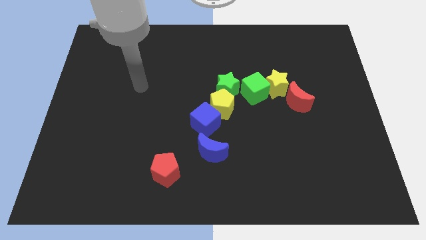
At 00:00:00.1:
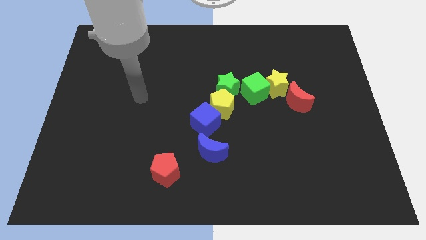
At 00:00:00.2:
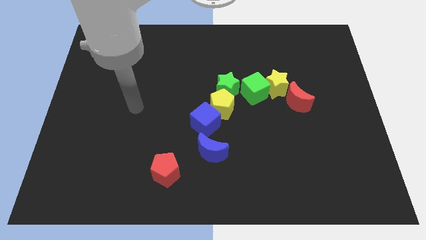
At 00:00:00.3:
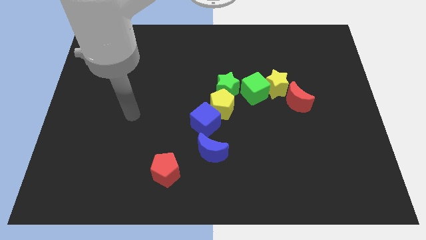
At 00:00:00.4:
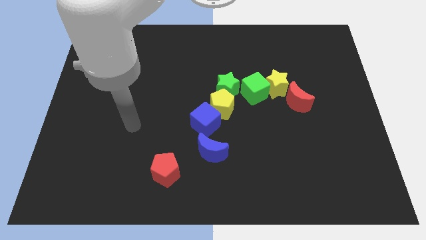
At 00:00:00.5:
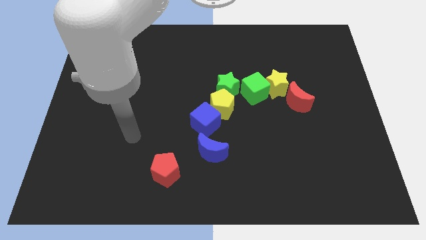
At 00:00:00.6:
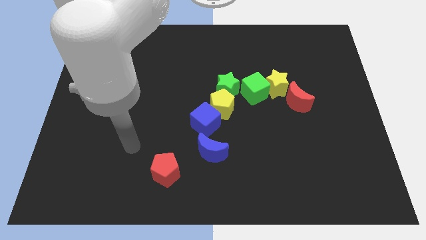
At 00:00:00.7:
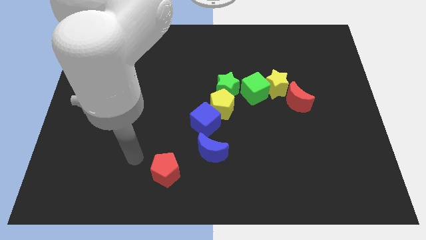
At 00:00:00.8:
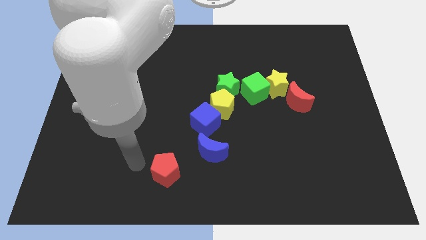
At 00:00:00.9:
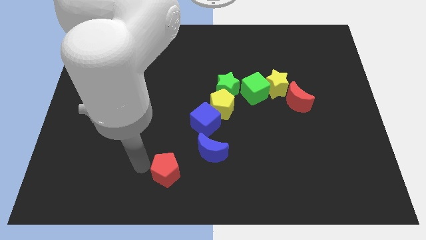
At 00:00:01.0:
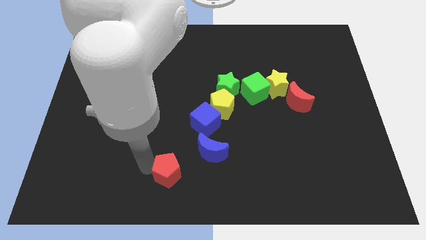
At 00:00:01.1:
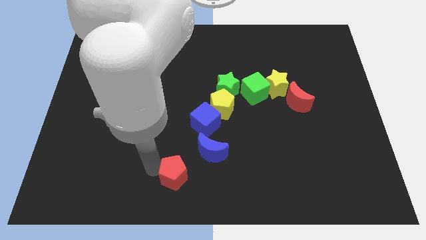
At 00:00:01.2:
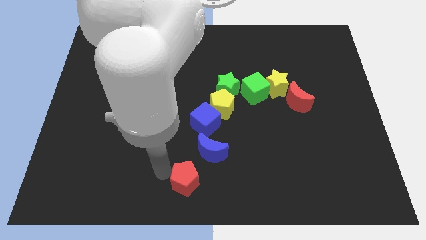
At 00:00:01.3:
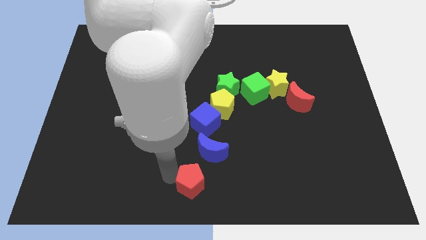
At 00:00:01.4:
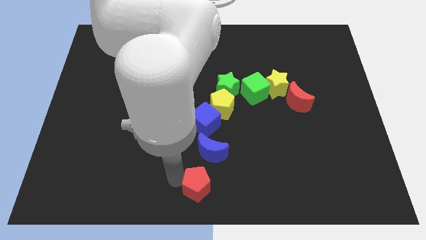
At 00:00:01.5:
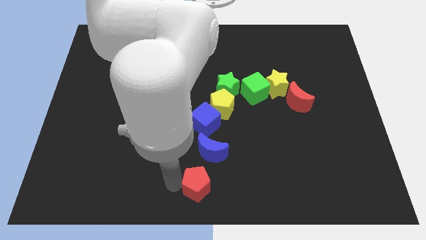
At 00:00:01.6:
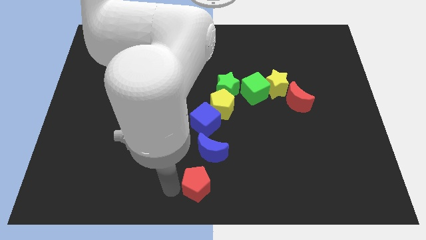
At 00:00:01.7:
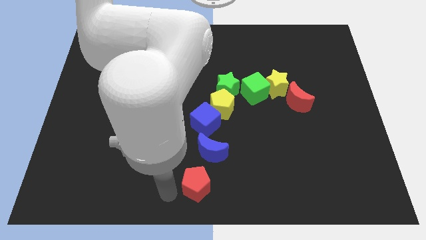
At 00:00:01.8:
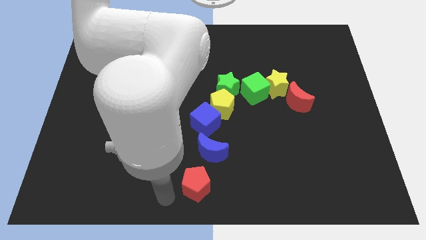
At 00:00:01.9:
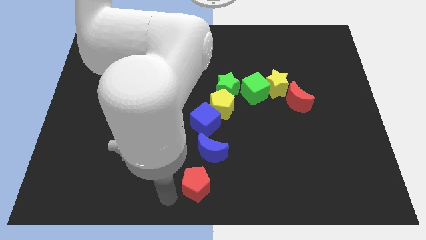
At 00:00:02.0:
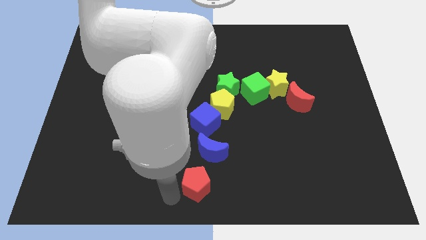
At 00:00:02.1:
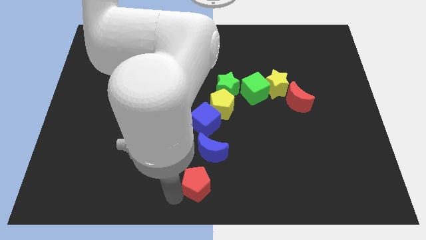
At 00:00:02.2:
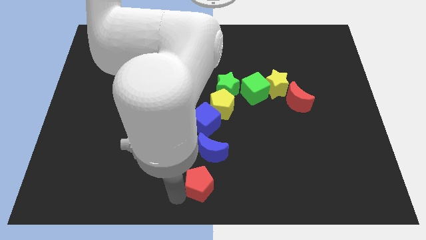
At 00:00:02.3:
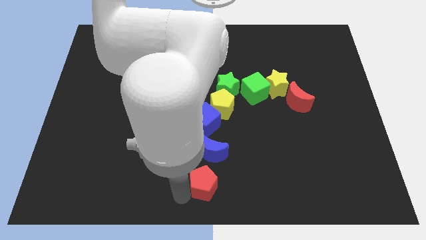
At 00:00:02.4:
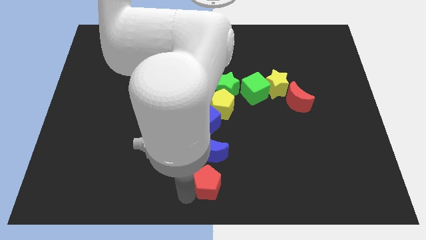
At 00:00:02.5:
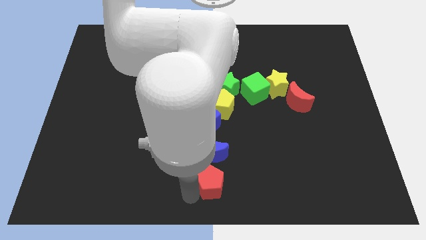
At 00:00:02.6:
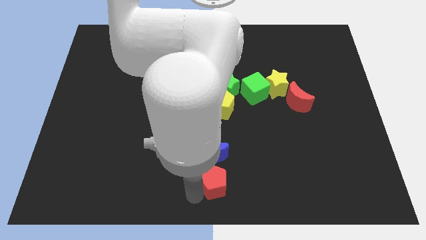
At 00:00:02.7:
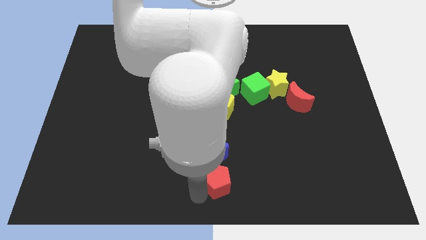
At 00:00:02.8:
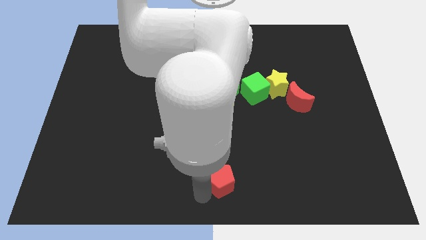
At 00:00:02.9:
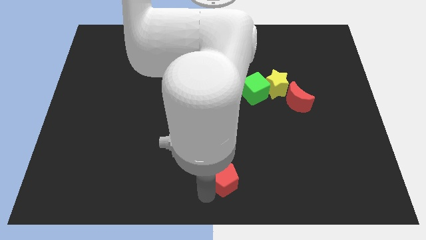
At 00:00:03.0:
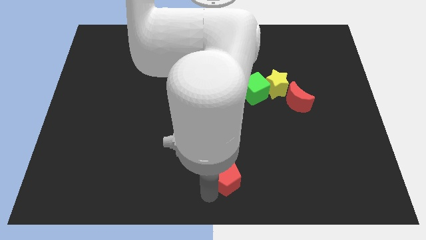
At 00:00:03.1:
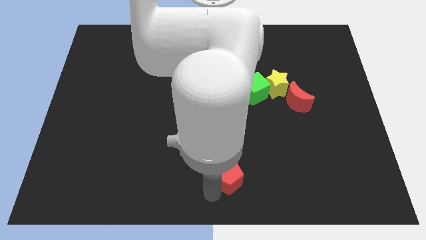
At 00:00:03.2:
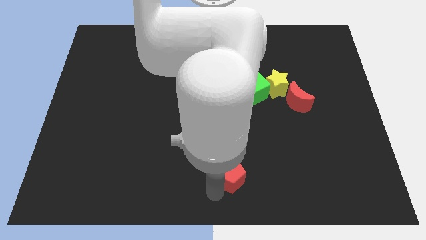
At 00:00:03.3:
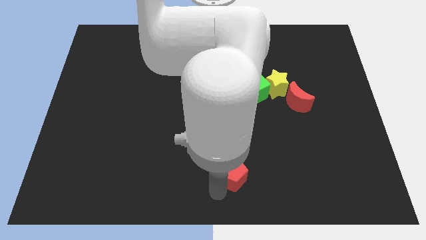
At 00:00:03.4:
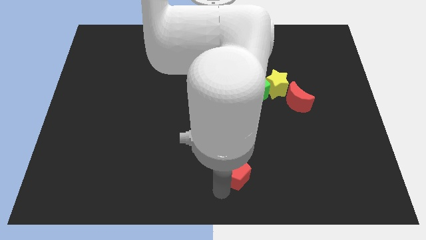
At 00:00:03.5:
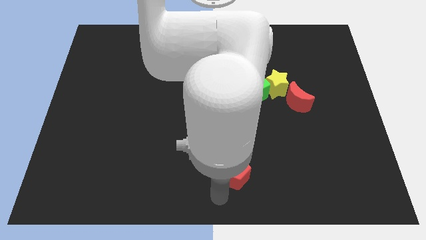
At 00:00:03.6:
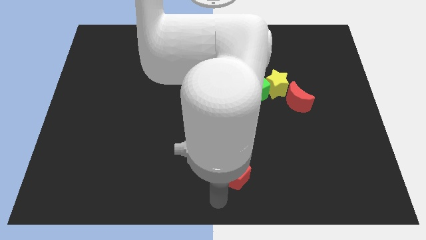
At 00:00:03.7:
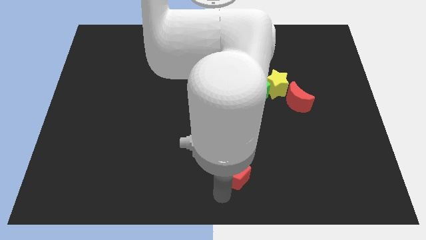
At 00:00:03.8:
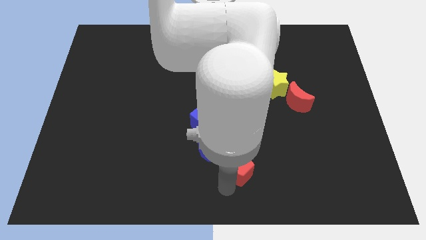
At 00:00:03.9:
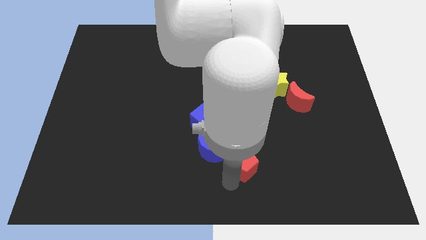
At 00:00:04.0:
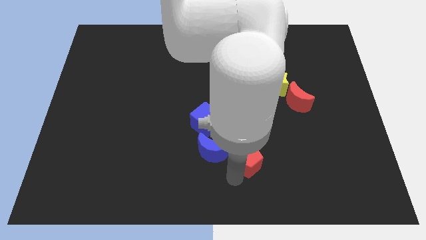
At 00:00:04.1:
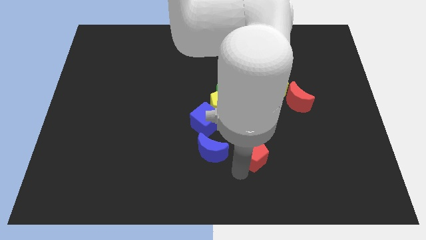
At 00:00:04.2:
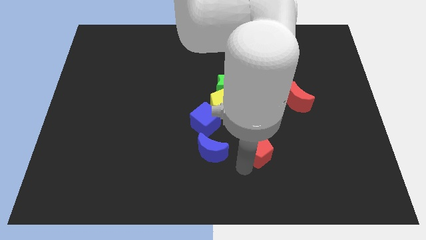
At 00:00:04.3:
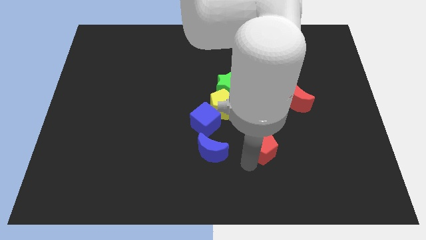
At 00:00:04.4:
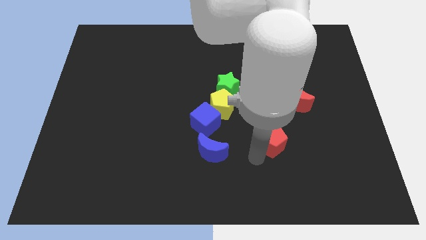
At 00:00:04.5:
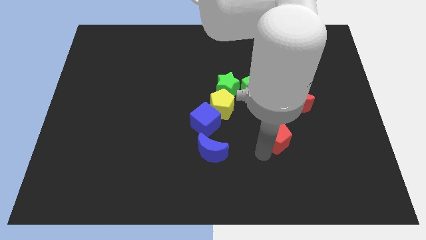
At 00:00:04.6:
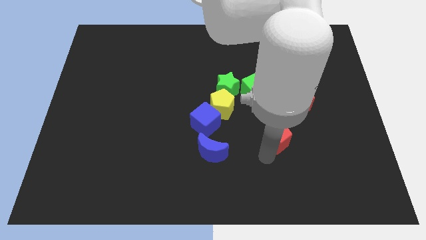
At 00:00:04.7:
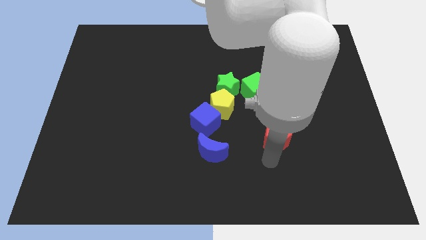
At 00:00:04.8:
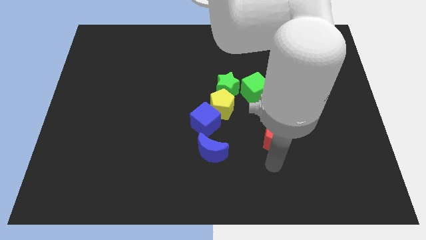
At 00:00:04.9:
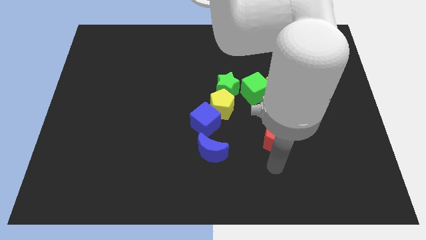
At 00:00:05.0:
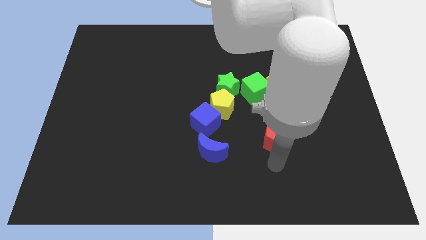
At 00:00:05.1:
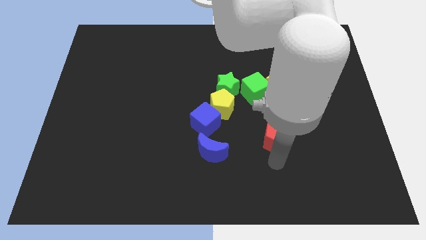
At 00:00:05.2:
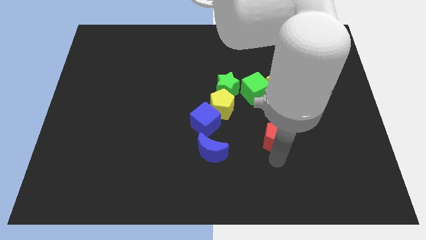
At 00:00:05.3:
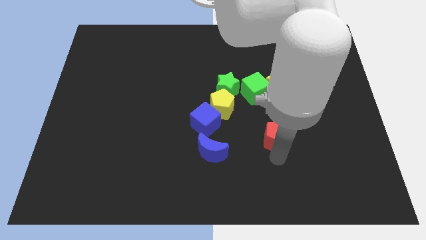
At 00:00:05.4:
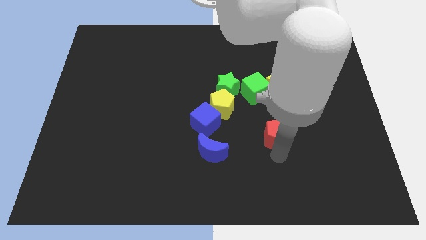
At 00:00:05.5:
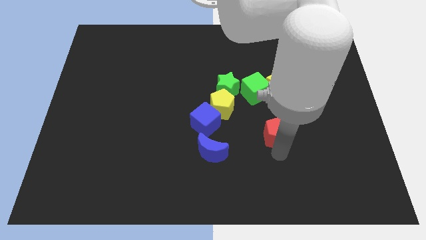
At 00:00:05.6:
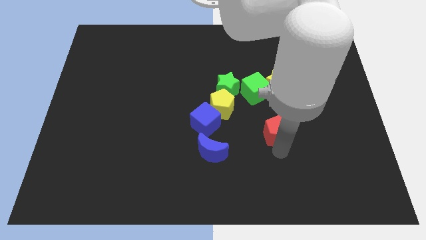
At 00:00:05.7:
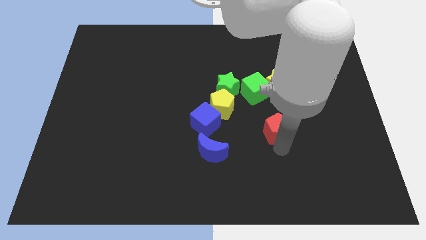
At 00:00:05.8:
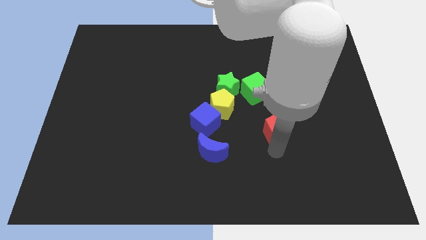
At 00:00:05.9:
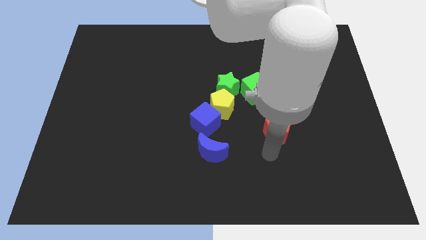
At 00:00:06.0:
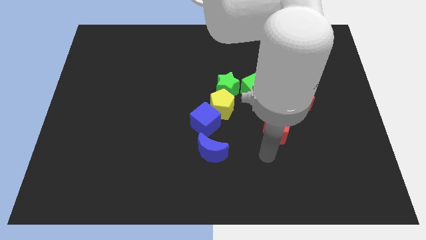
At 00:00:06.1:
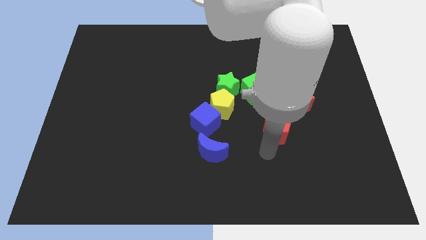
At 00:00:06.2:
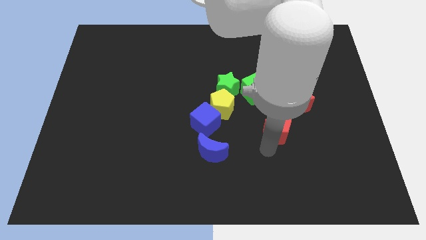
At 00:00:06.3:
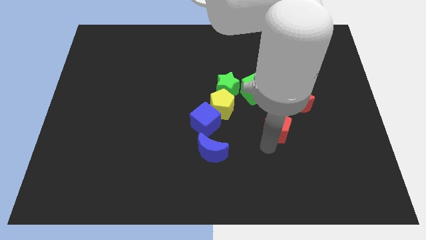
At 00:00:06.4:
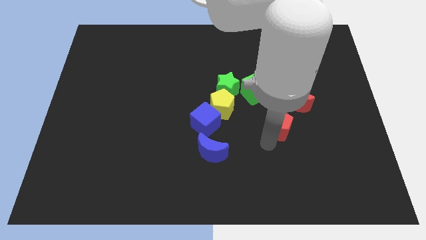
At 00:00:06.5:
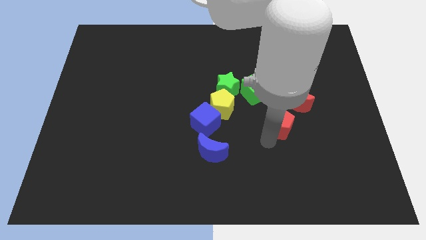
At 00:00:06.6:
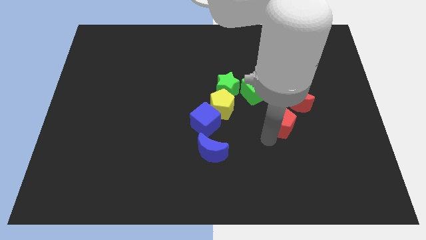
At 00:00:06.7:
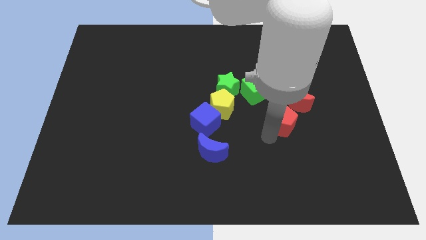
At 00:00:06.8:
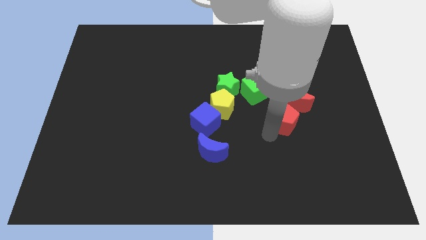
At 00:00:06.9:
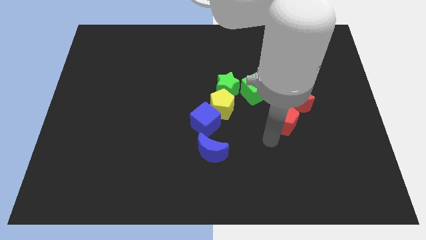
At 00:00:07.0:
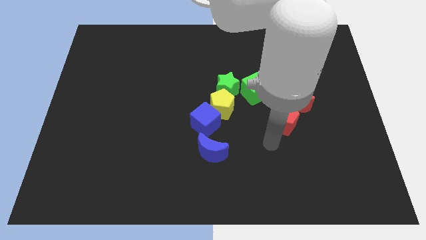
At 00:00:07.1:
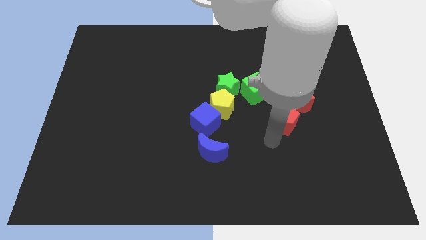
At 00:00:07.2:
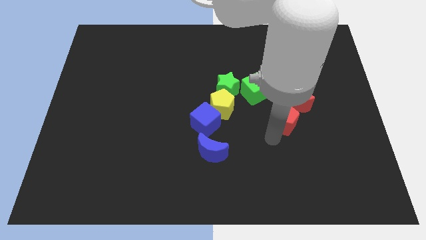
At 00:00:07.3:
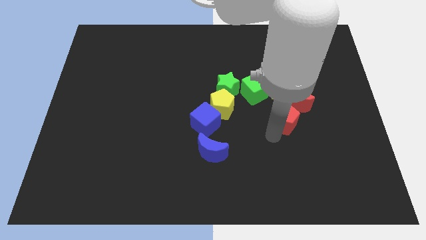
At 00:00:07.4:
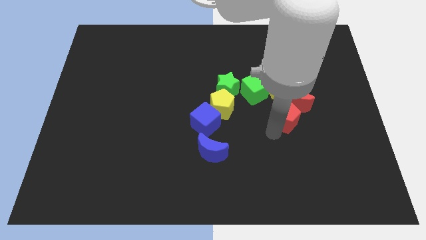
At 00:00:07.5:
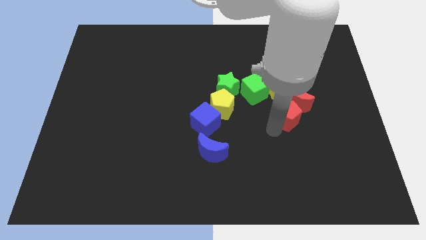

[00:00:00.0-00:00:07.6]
put the red pentagon close to the red moon
